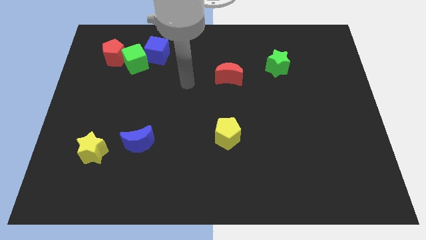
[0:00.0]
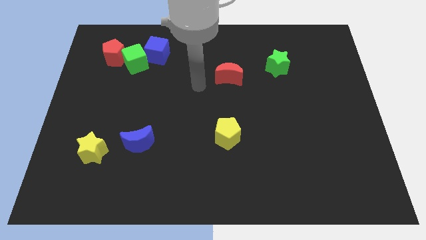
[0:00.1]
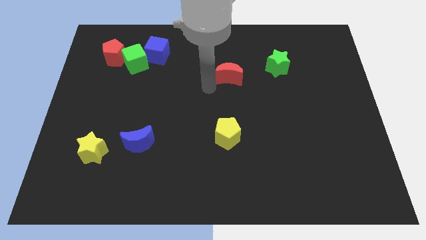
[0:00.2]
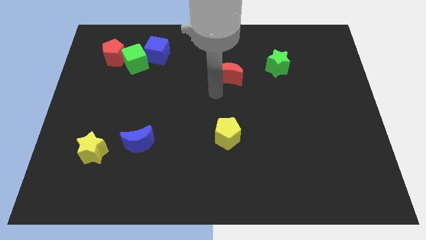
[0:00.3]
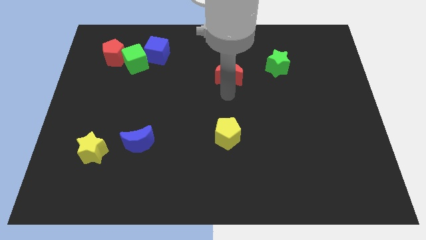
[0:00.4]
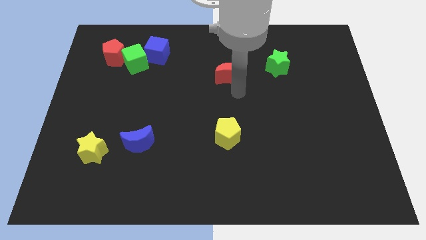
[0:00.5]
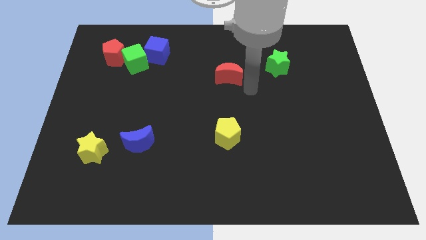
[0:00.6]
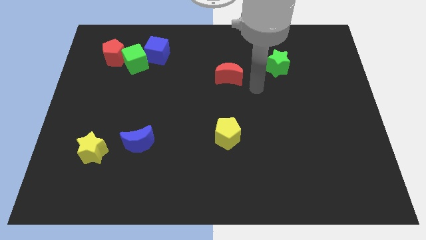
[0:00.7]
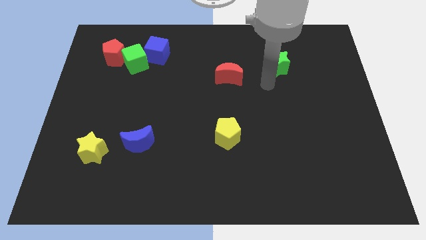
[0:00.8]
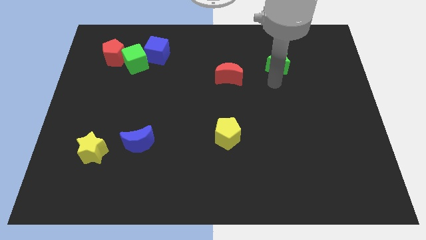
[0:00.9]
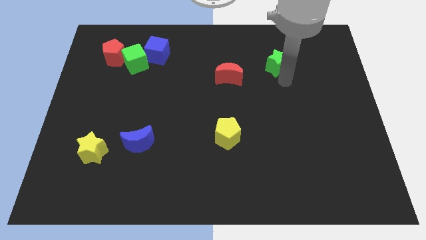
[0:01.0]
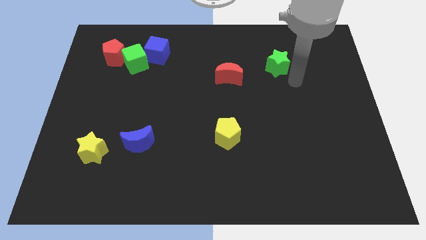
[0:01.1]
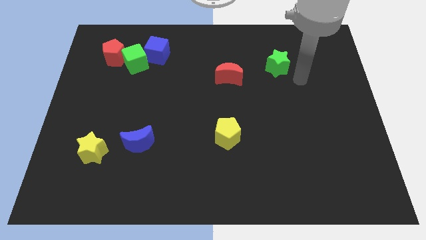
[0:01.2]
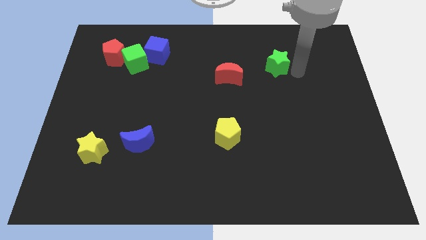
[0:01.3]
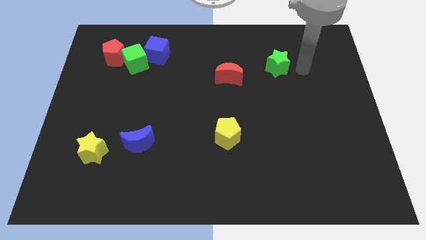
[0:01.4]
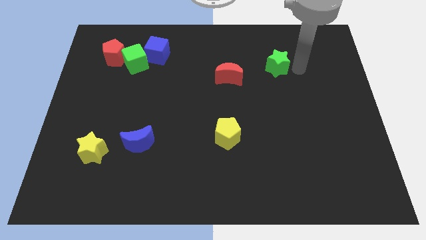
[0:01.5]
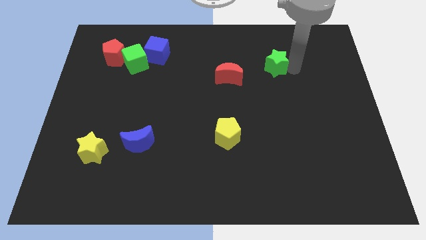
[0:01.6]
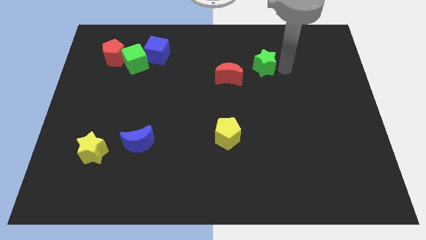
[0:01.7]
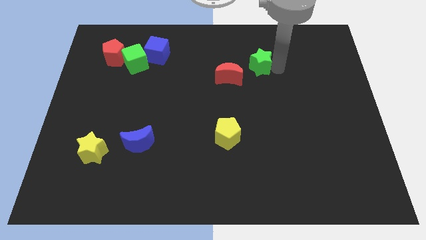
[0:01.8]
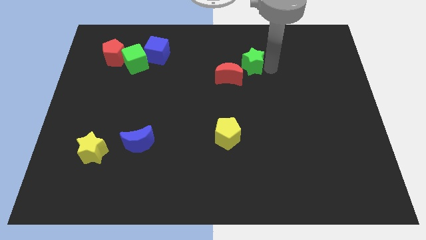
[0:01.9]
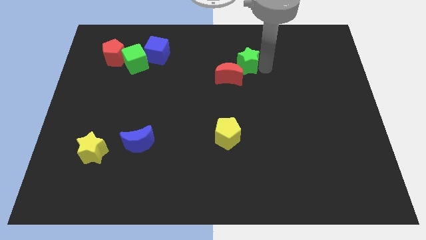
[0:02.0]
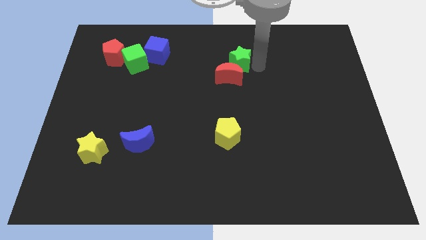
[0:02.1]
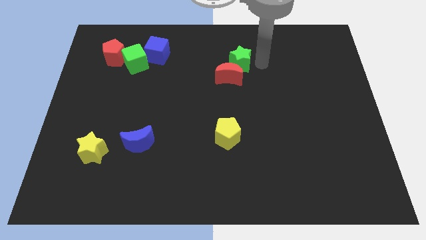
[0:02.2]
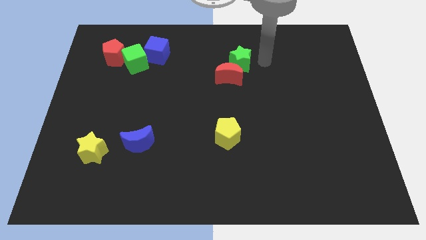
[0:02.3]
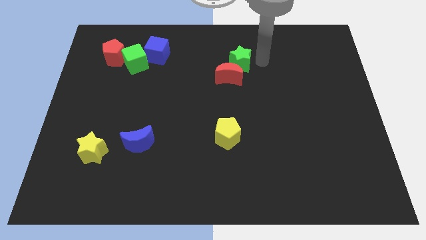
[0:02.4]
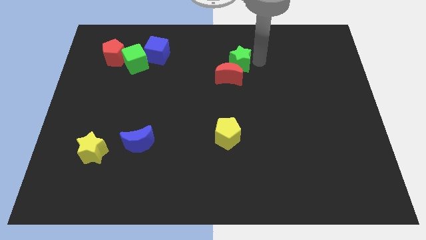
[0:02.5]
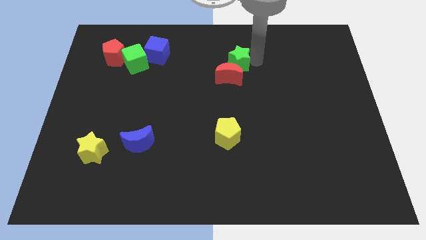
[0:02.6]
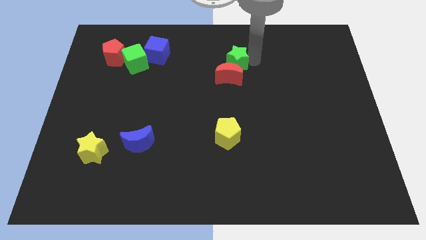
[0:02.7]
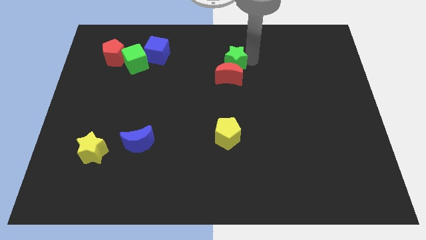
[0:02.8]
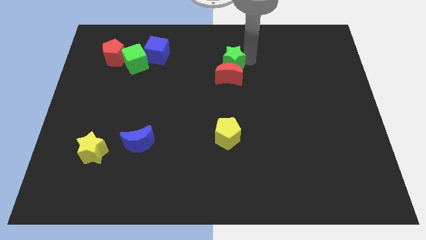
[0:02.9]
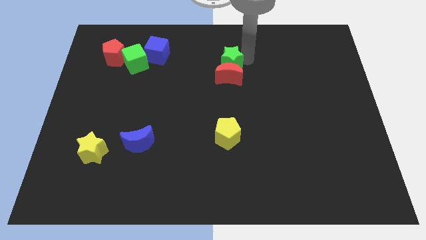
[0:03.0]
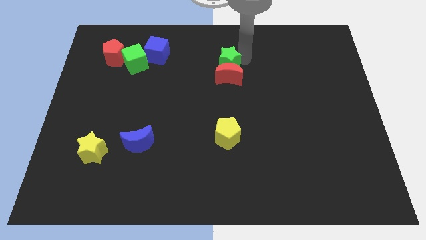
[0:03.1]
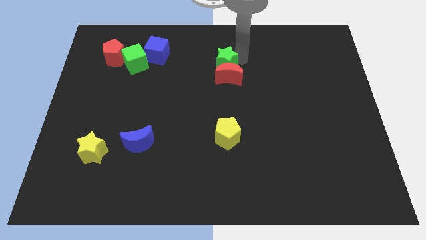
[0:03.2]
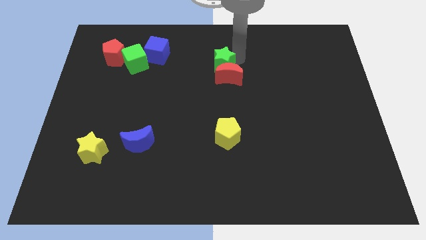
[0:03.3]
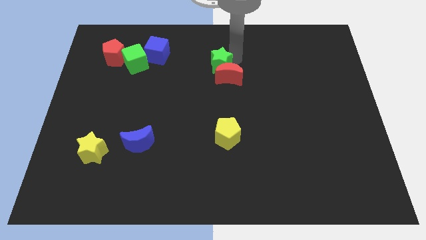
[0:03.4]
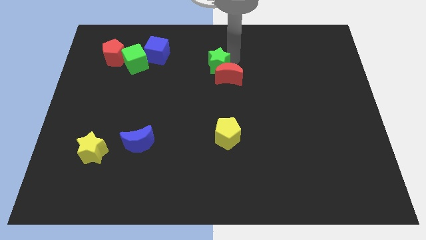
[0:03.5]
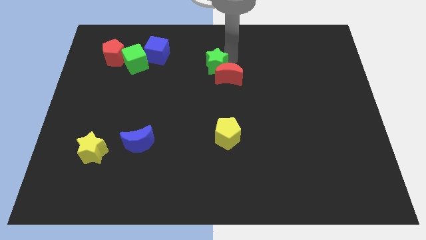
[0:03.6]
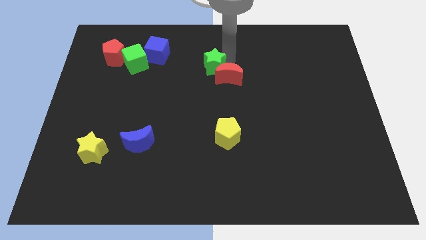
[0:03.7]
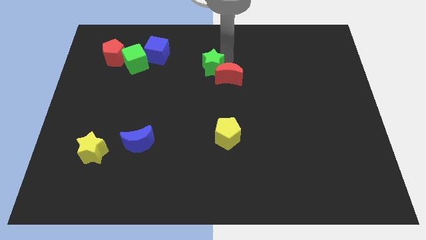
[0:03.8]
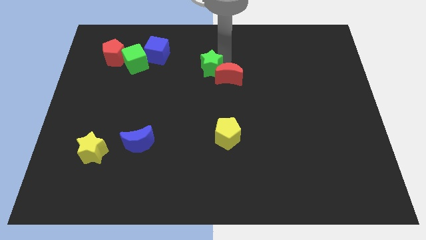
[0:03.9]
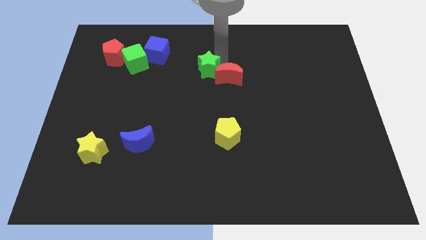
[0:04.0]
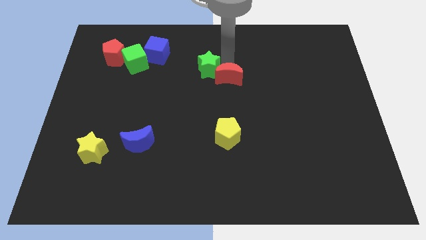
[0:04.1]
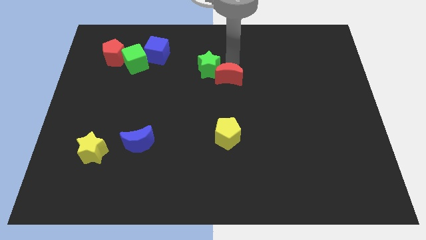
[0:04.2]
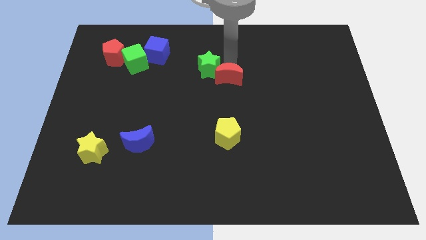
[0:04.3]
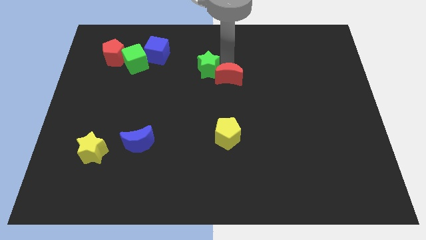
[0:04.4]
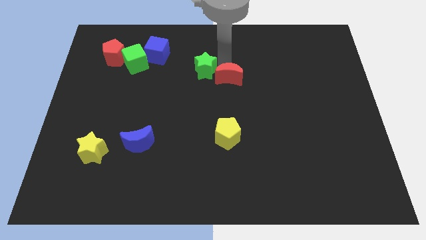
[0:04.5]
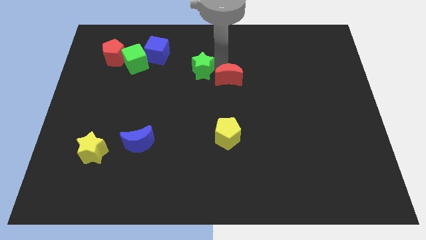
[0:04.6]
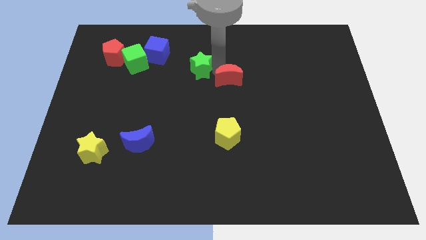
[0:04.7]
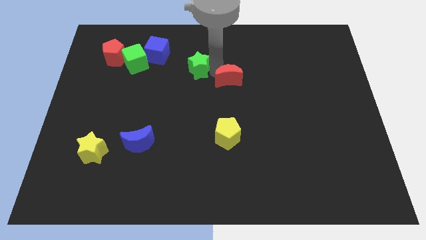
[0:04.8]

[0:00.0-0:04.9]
slide the green star to the left

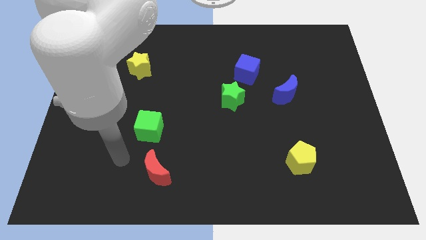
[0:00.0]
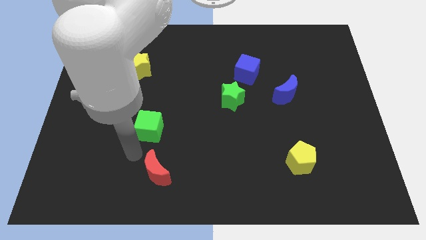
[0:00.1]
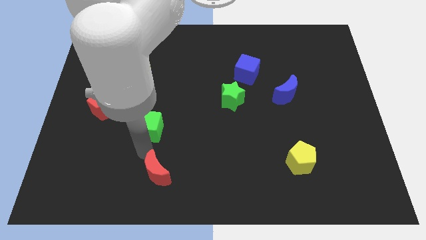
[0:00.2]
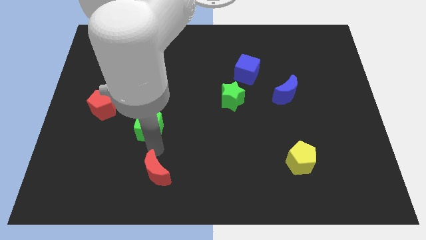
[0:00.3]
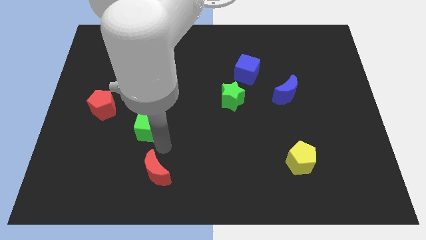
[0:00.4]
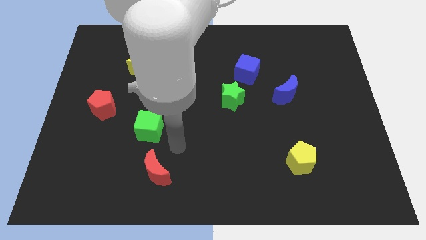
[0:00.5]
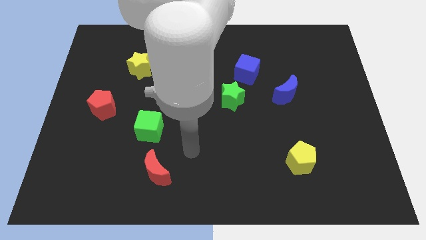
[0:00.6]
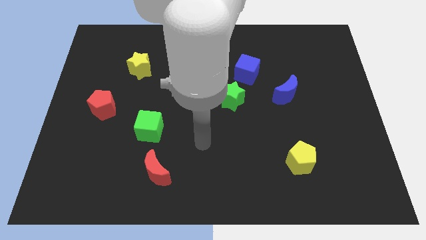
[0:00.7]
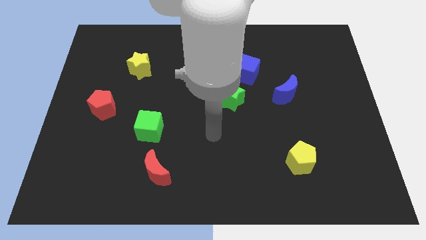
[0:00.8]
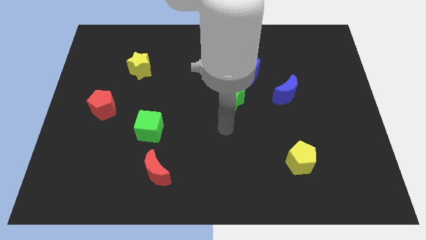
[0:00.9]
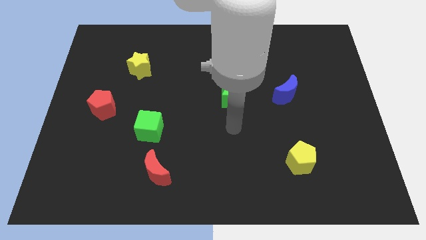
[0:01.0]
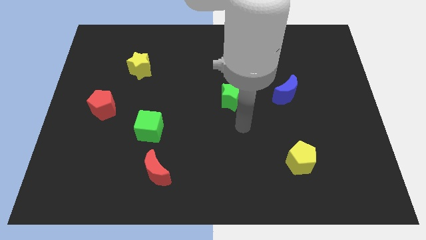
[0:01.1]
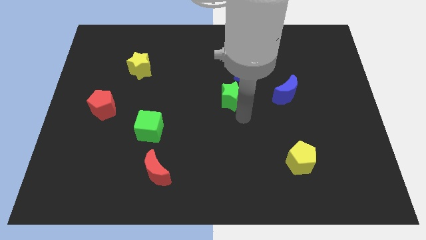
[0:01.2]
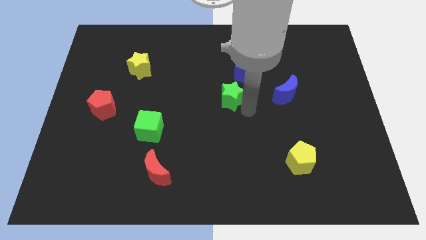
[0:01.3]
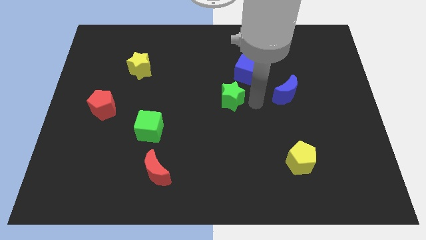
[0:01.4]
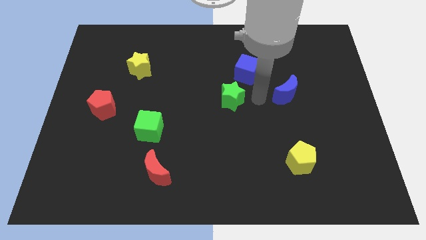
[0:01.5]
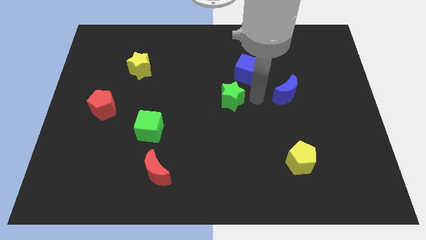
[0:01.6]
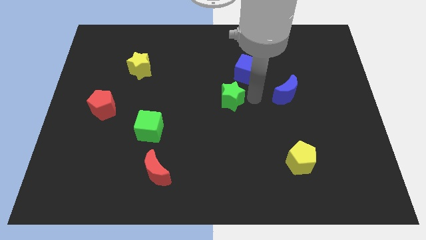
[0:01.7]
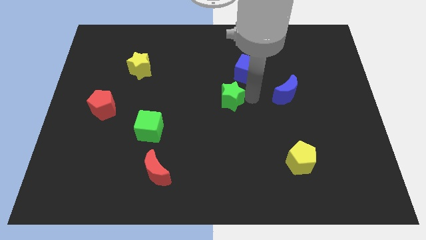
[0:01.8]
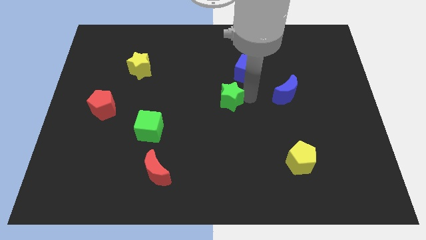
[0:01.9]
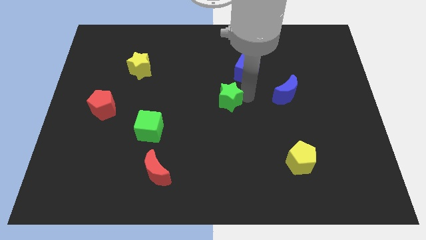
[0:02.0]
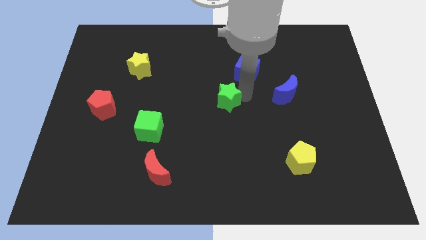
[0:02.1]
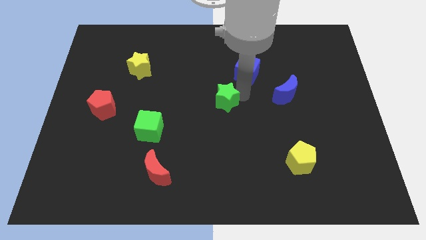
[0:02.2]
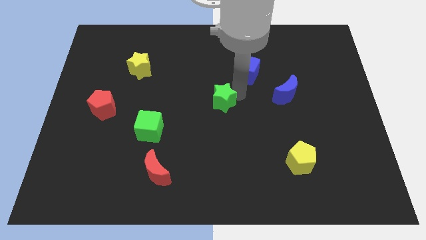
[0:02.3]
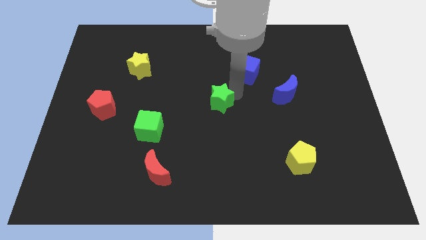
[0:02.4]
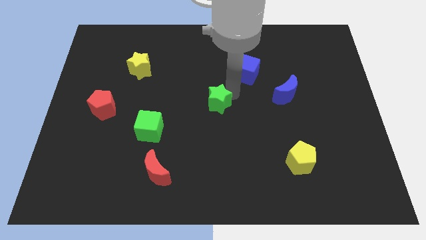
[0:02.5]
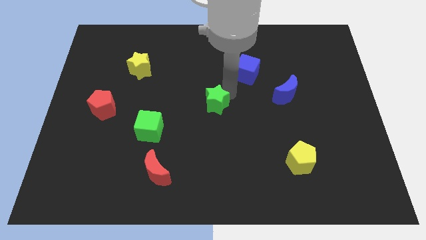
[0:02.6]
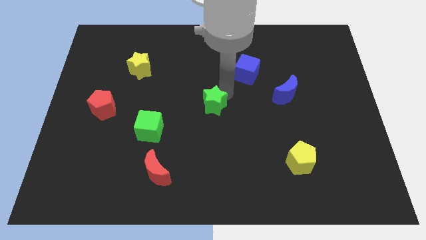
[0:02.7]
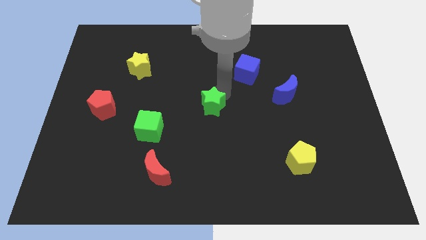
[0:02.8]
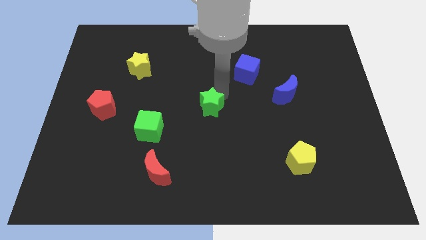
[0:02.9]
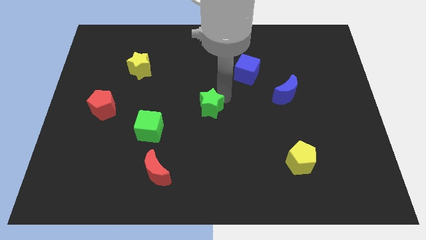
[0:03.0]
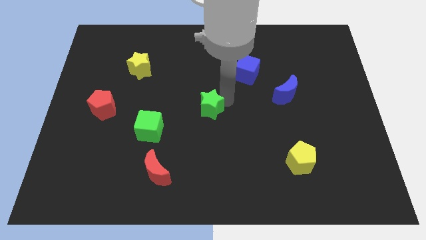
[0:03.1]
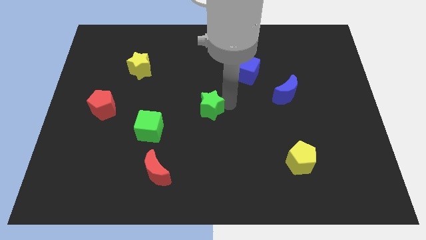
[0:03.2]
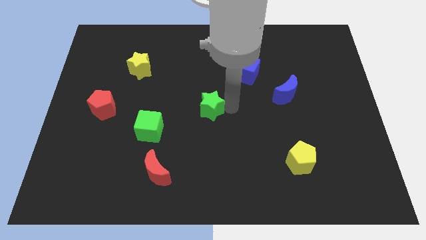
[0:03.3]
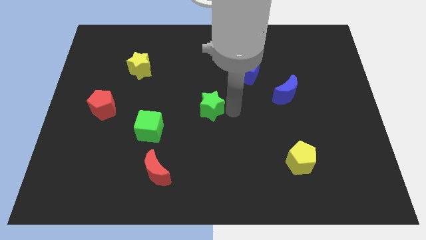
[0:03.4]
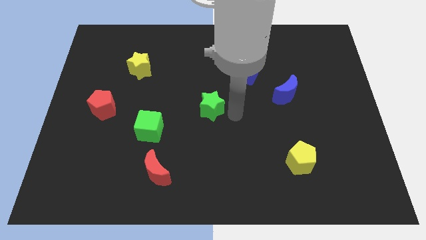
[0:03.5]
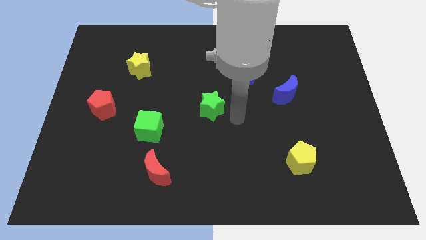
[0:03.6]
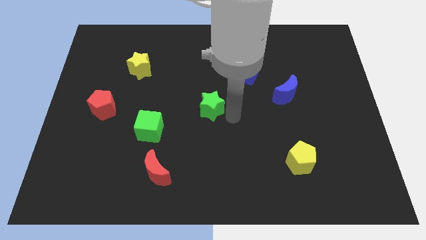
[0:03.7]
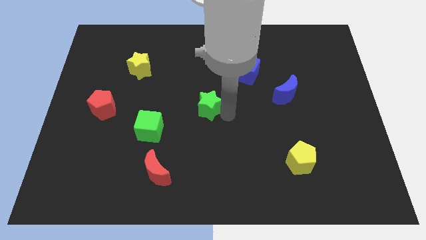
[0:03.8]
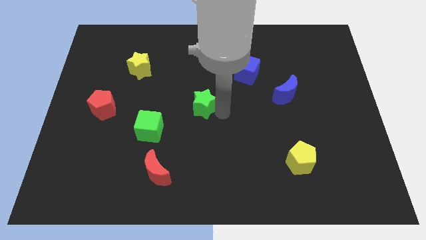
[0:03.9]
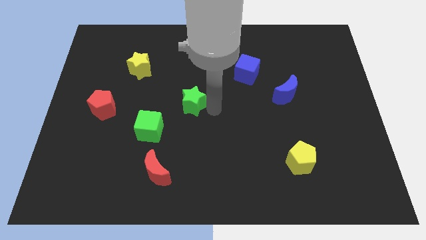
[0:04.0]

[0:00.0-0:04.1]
slightly slide the green star left
